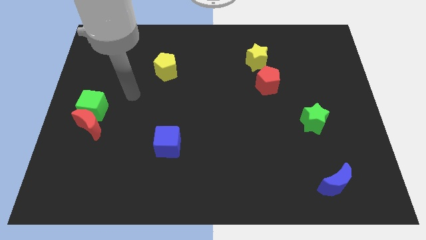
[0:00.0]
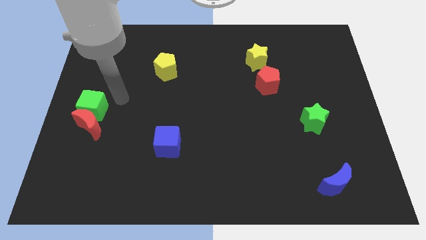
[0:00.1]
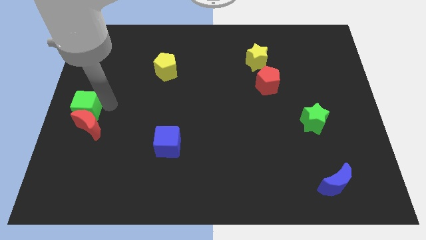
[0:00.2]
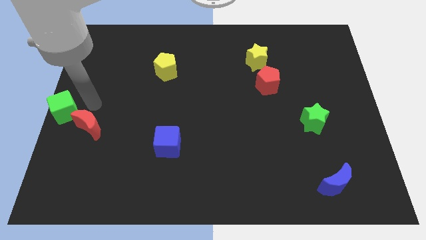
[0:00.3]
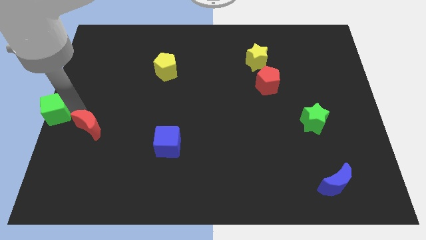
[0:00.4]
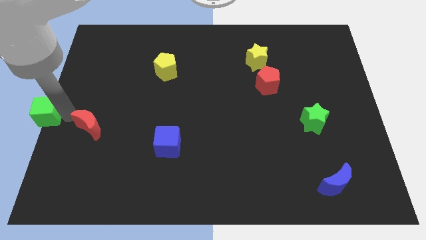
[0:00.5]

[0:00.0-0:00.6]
separate the red moon from the green cube

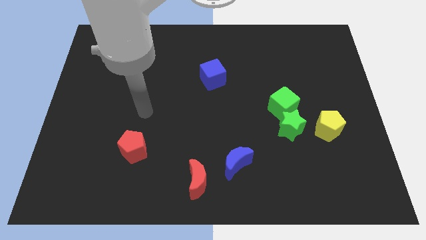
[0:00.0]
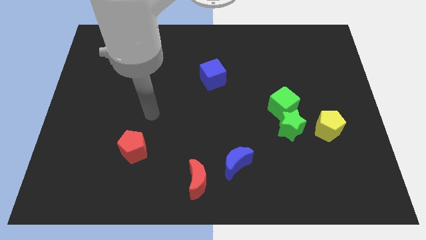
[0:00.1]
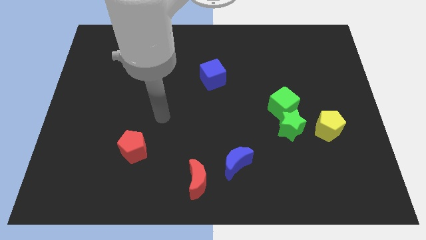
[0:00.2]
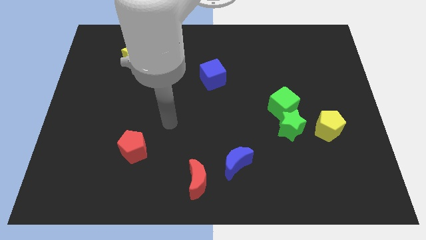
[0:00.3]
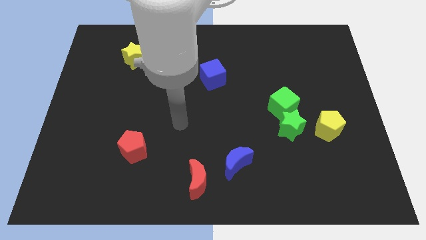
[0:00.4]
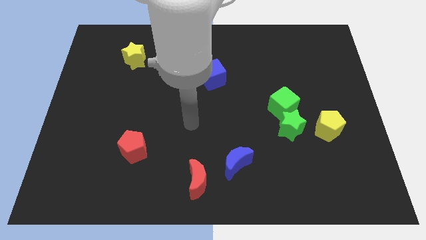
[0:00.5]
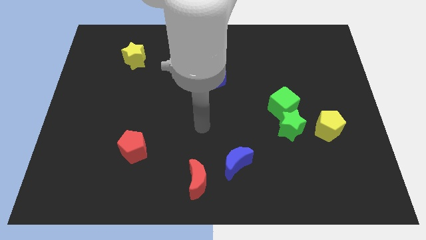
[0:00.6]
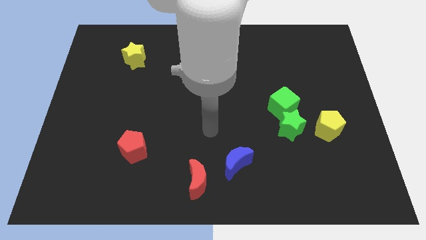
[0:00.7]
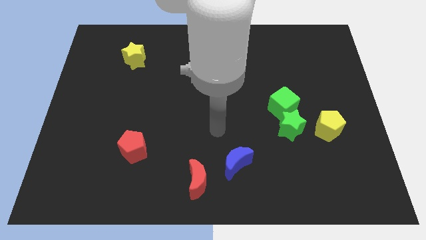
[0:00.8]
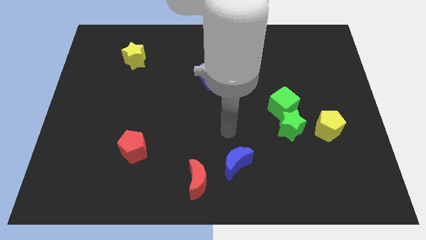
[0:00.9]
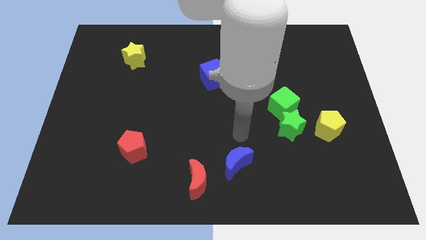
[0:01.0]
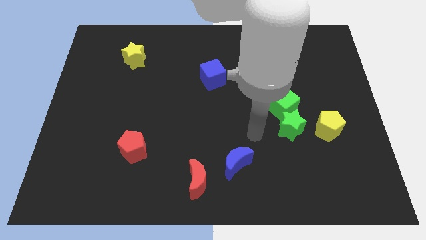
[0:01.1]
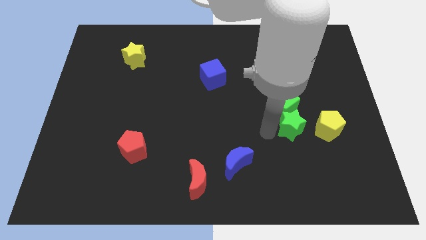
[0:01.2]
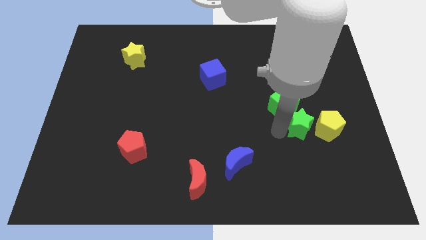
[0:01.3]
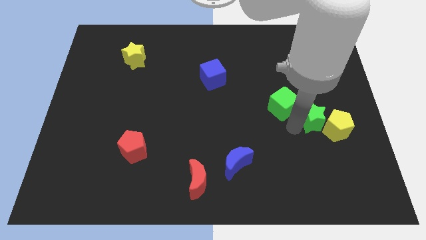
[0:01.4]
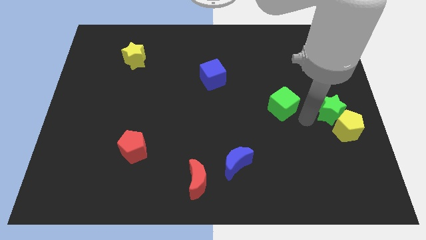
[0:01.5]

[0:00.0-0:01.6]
pull the green cube apart from the green star

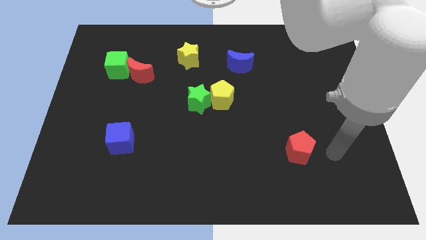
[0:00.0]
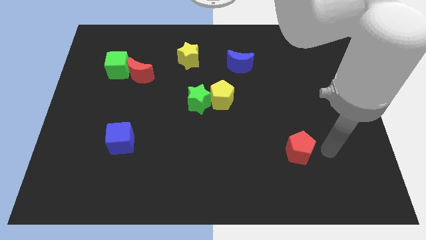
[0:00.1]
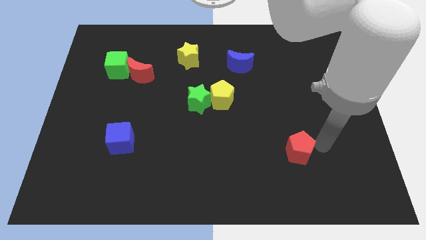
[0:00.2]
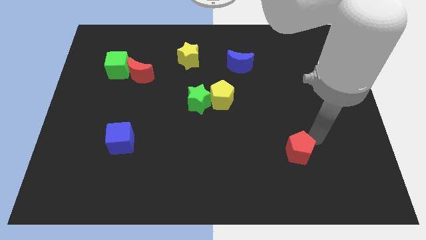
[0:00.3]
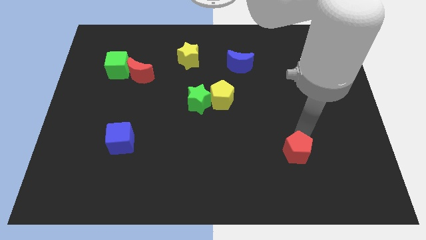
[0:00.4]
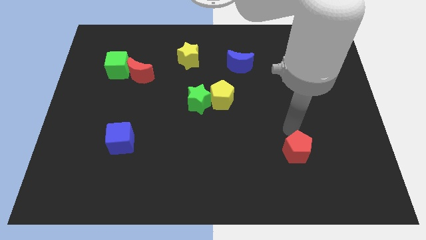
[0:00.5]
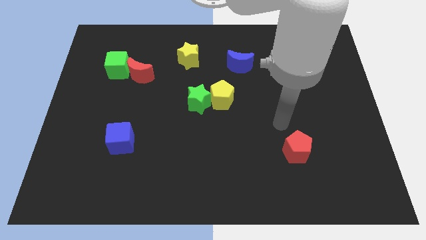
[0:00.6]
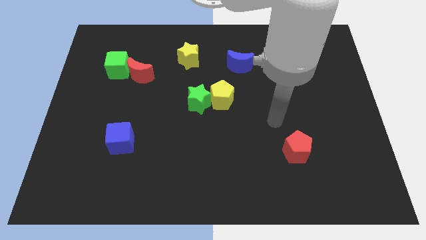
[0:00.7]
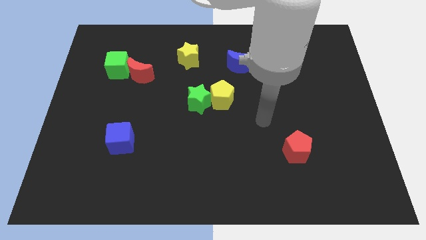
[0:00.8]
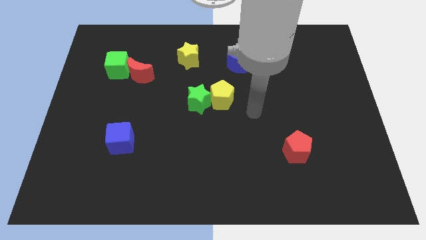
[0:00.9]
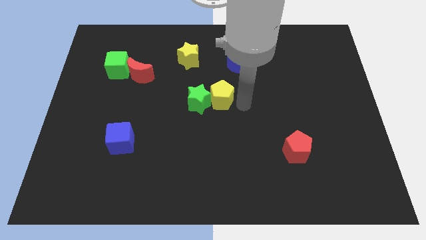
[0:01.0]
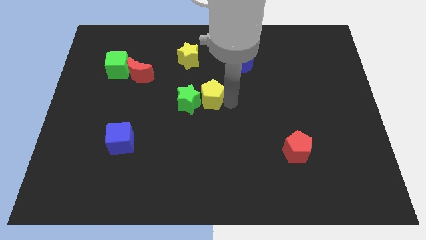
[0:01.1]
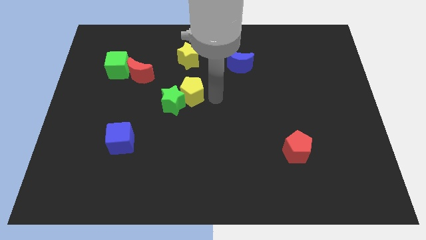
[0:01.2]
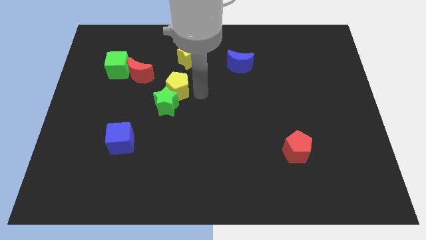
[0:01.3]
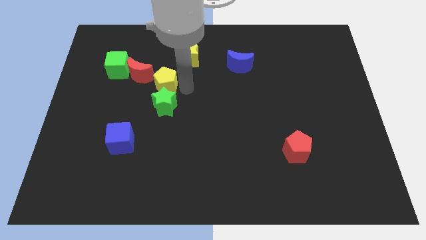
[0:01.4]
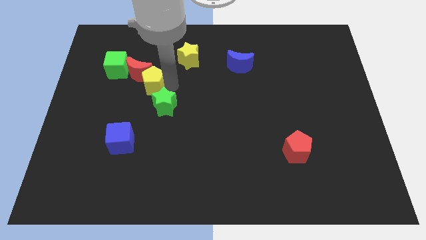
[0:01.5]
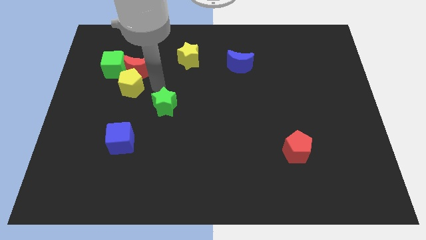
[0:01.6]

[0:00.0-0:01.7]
pull the green star apart from the yellow pentagon

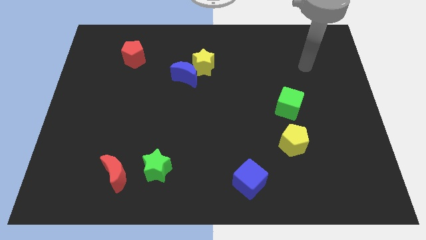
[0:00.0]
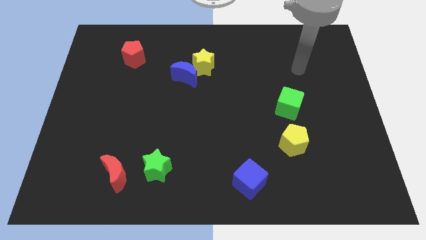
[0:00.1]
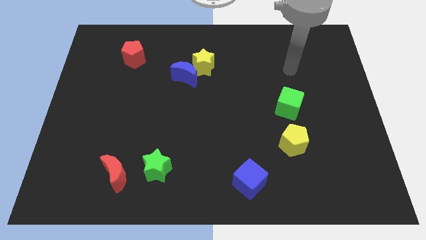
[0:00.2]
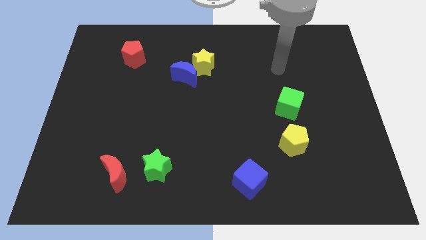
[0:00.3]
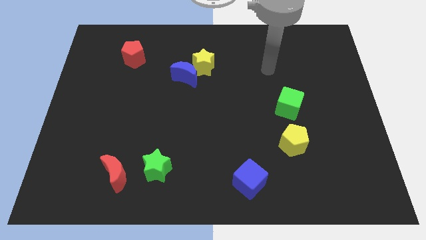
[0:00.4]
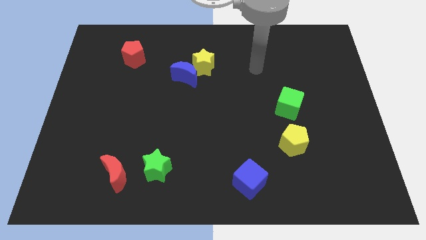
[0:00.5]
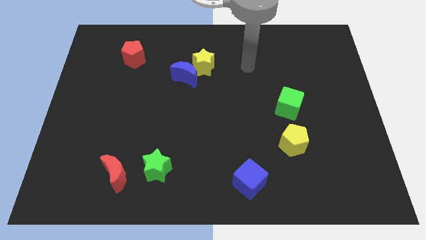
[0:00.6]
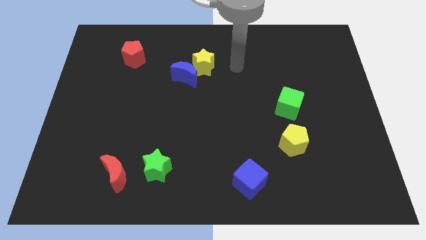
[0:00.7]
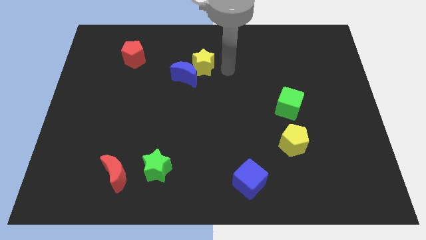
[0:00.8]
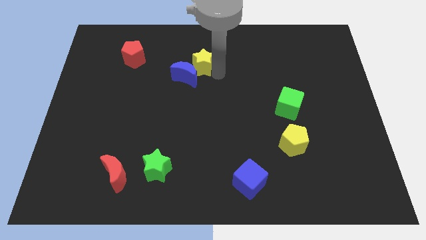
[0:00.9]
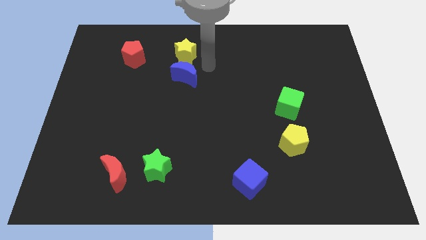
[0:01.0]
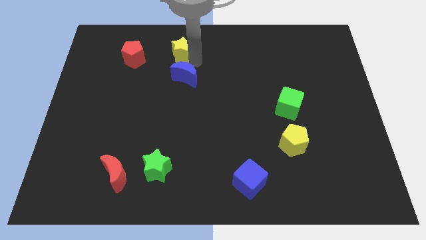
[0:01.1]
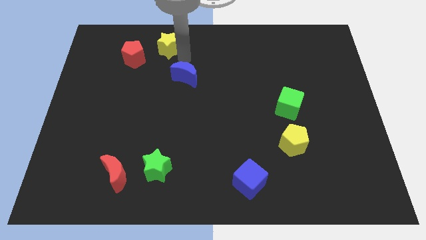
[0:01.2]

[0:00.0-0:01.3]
pull the blue moon apart from the yellow star

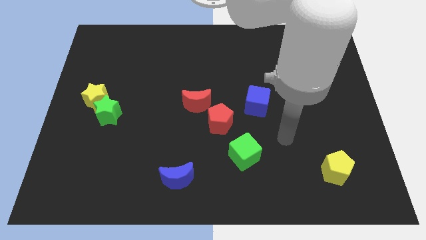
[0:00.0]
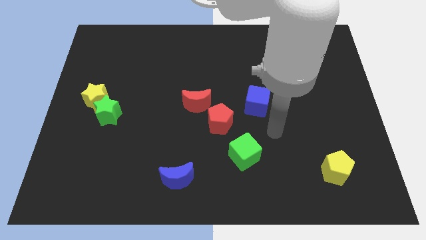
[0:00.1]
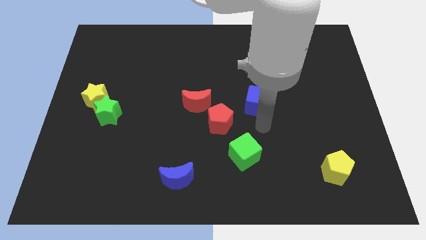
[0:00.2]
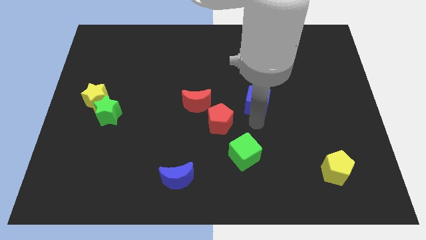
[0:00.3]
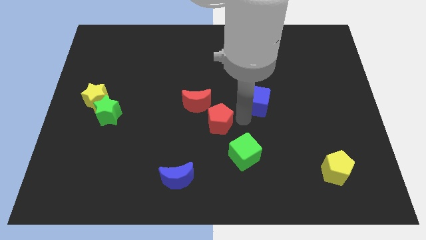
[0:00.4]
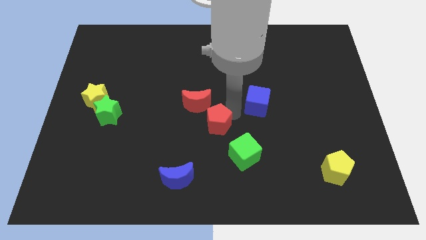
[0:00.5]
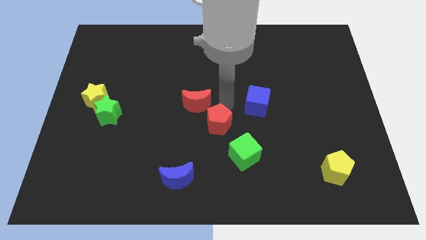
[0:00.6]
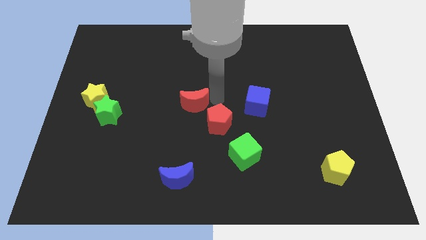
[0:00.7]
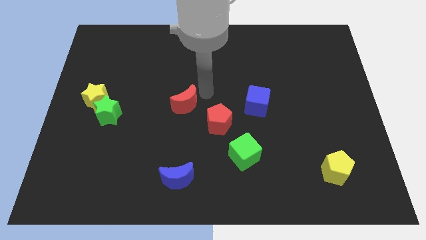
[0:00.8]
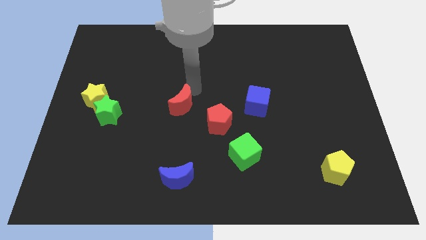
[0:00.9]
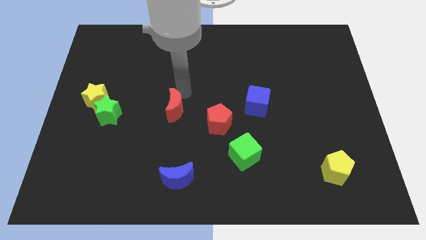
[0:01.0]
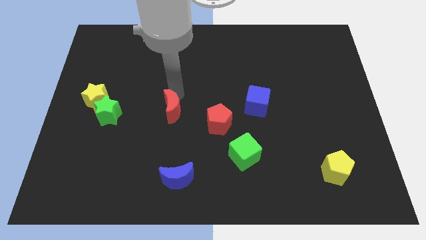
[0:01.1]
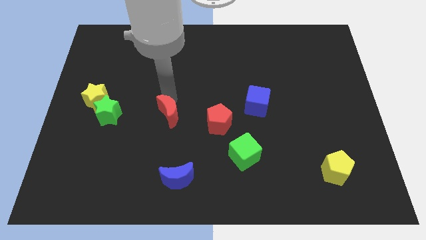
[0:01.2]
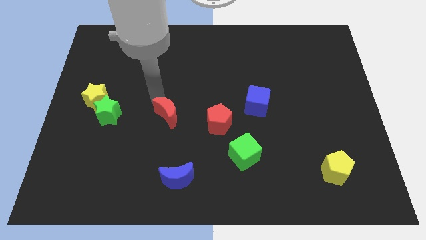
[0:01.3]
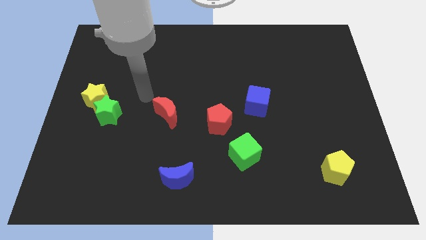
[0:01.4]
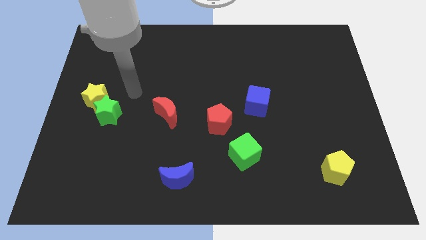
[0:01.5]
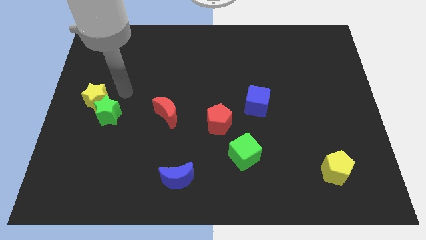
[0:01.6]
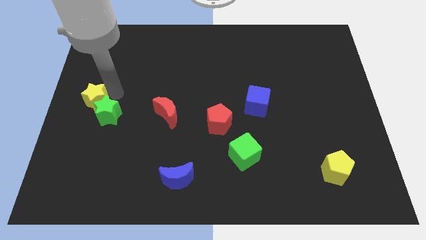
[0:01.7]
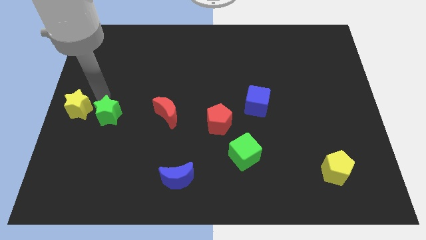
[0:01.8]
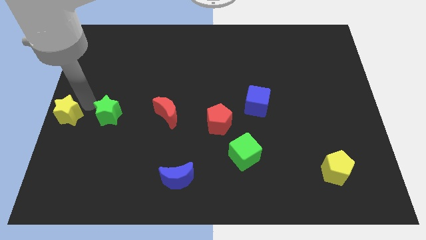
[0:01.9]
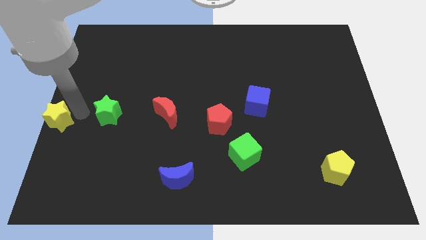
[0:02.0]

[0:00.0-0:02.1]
separate the green star from the yellow star

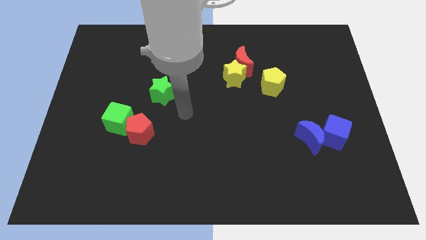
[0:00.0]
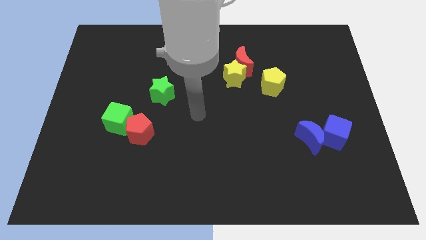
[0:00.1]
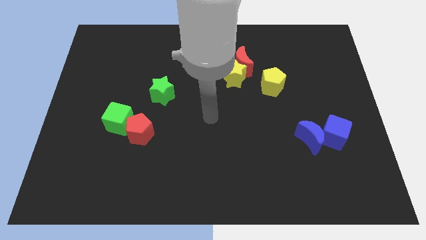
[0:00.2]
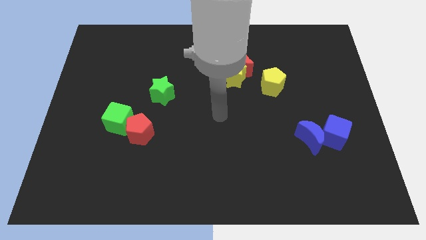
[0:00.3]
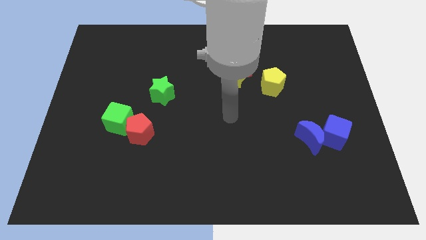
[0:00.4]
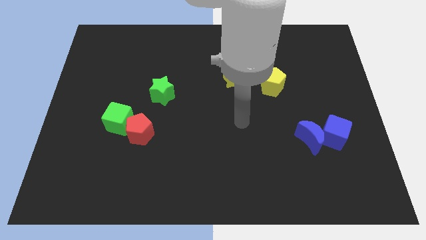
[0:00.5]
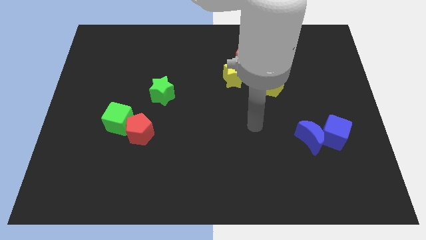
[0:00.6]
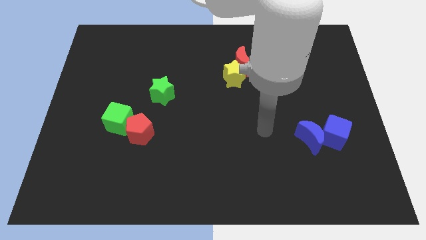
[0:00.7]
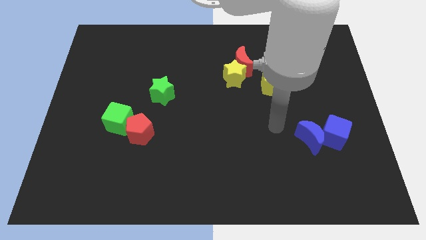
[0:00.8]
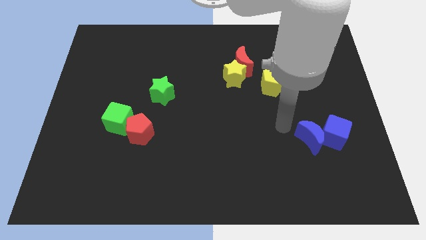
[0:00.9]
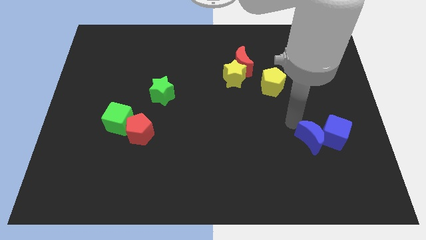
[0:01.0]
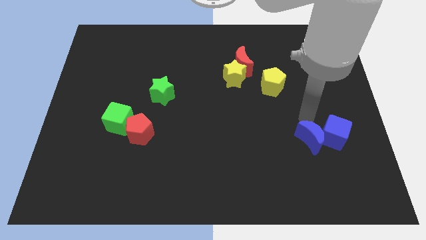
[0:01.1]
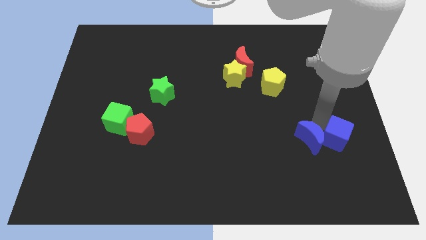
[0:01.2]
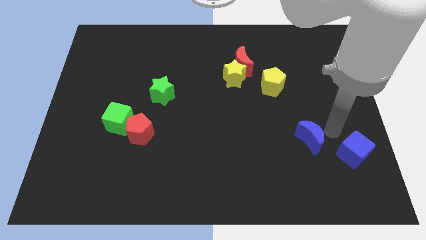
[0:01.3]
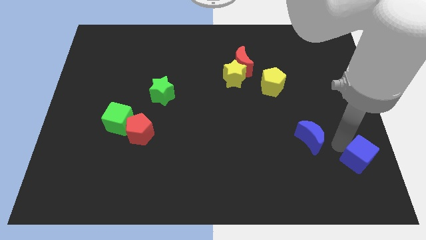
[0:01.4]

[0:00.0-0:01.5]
move the blue moon away from the blue cube

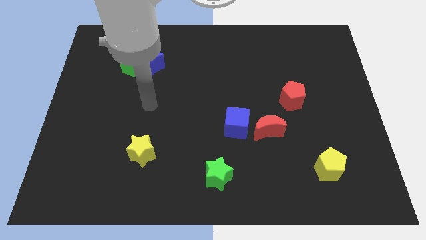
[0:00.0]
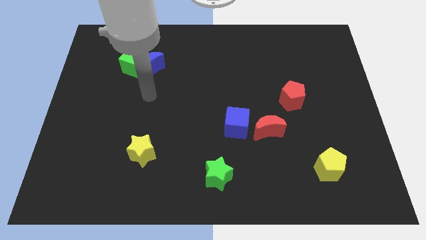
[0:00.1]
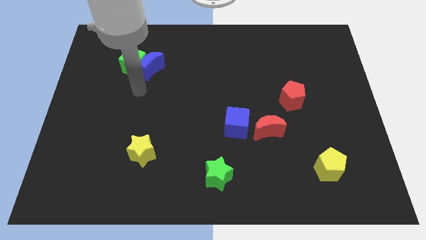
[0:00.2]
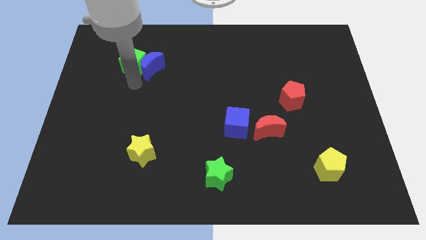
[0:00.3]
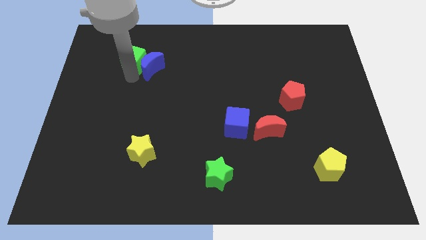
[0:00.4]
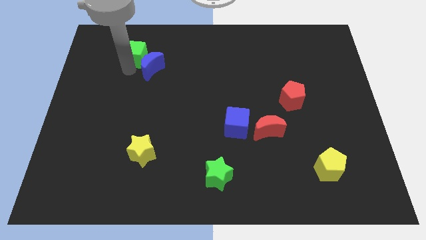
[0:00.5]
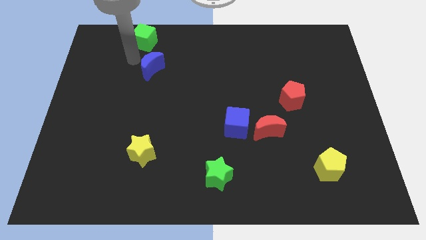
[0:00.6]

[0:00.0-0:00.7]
move the blue moon away from the green cube
